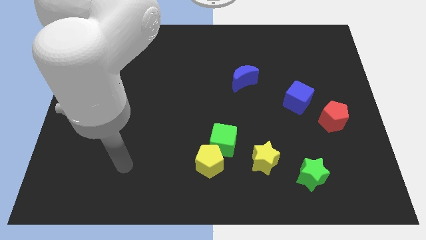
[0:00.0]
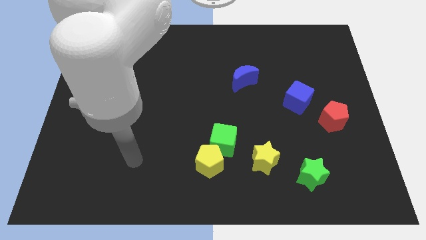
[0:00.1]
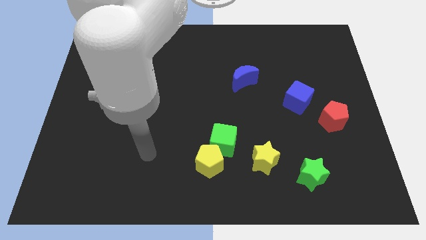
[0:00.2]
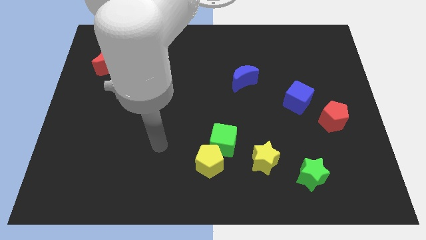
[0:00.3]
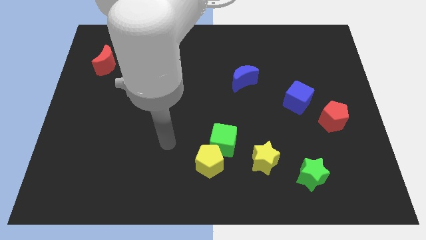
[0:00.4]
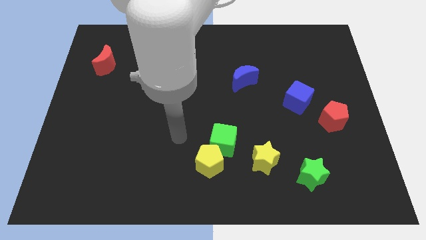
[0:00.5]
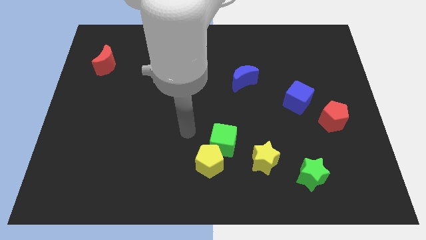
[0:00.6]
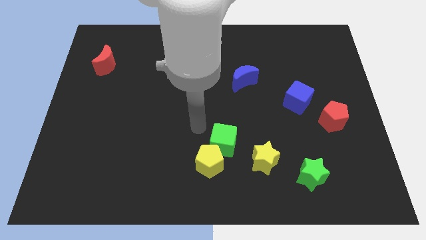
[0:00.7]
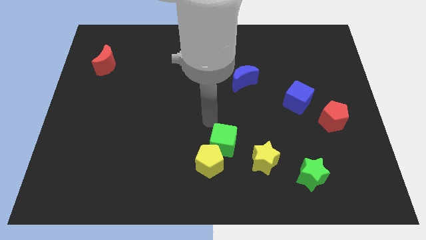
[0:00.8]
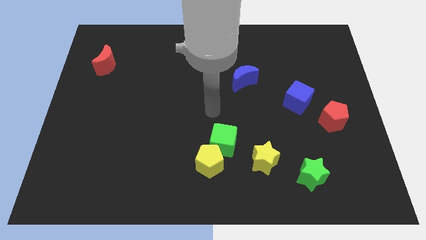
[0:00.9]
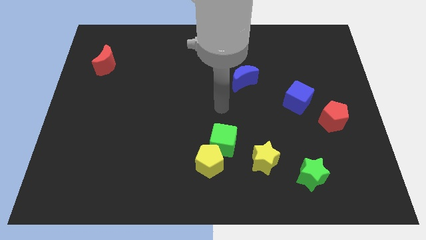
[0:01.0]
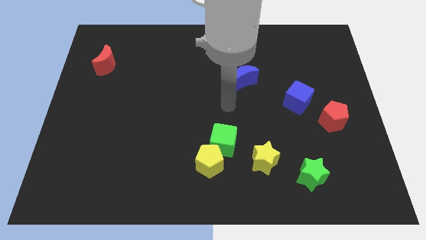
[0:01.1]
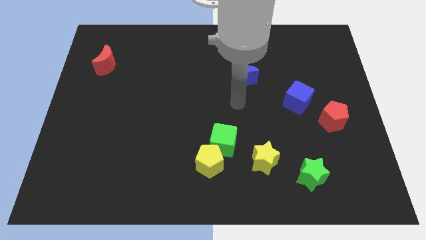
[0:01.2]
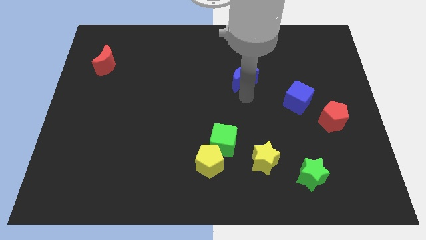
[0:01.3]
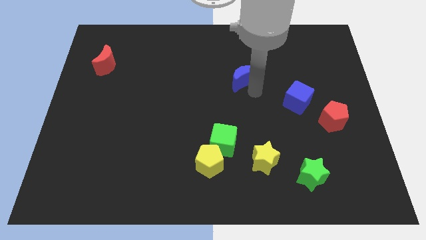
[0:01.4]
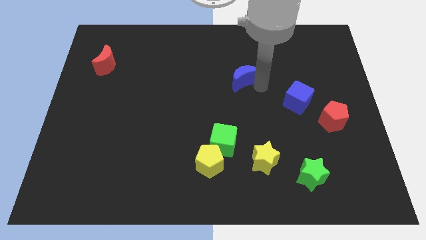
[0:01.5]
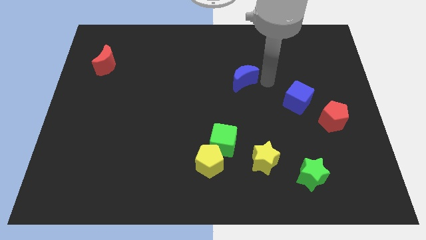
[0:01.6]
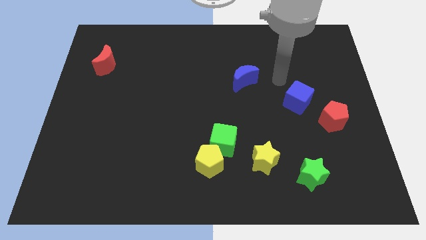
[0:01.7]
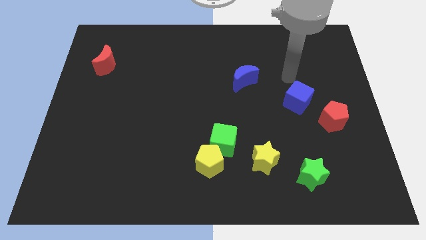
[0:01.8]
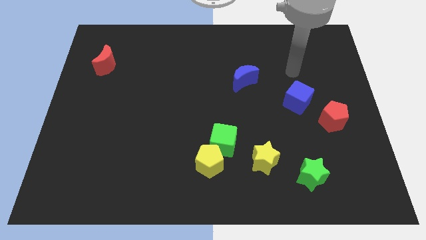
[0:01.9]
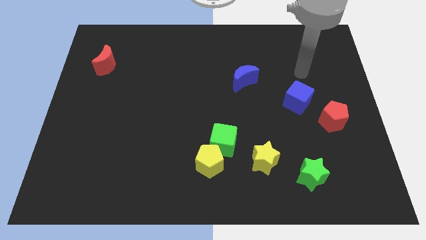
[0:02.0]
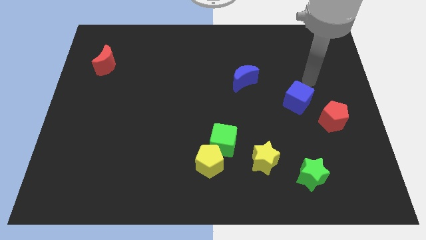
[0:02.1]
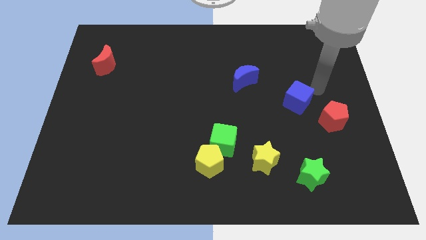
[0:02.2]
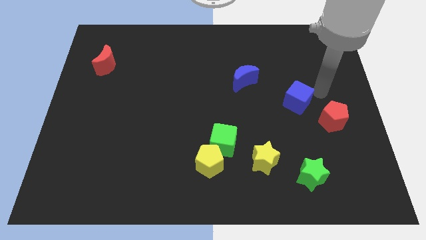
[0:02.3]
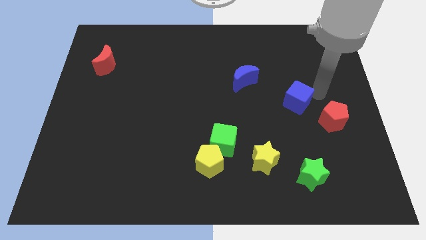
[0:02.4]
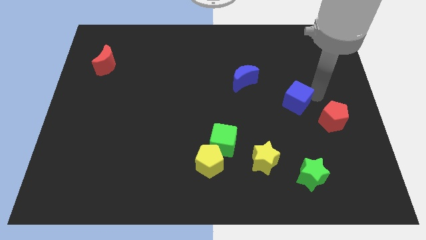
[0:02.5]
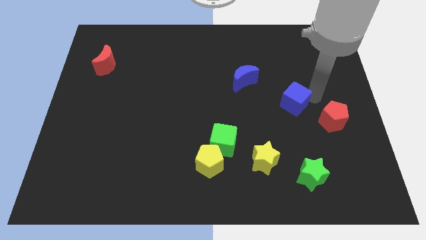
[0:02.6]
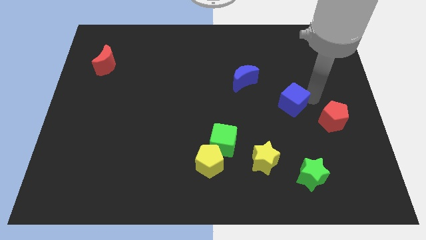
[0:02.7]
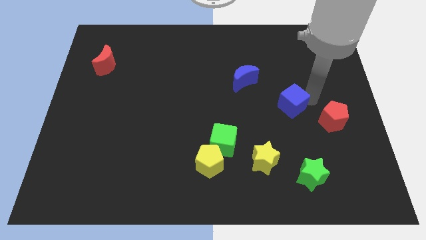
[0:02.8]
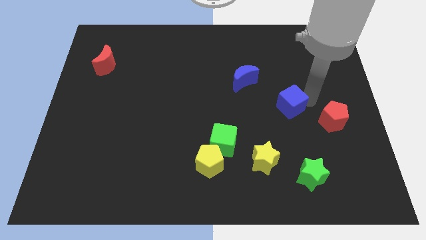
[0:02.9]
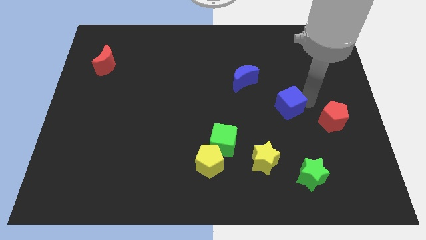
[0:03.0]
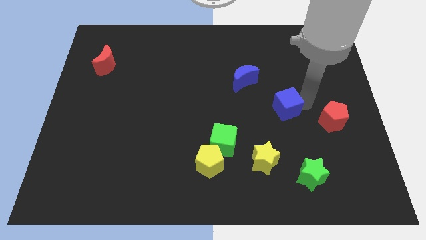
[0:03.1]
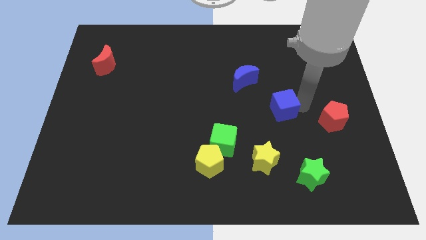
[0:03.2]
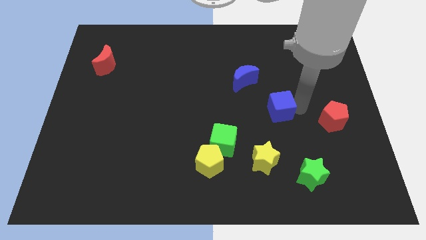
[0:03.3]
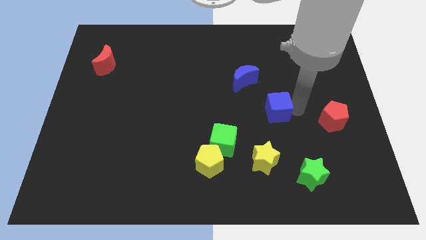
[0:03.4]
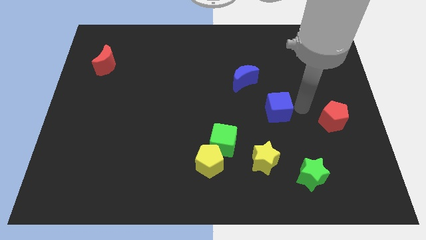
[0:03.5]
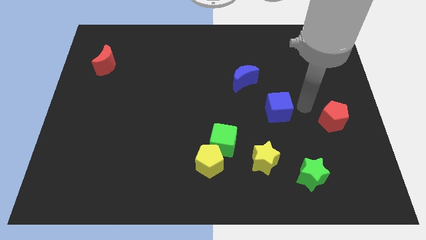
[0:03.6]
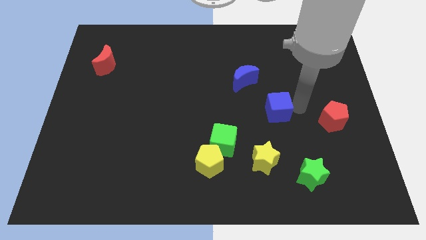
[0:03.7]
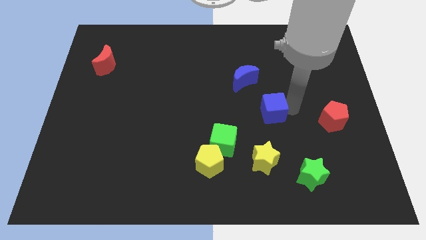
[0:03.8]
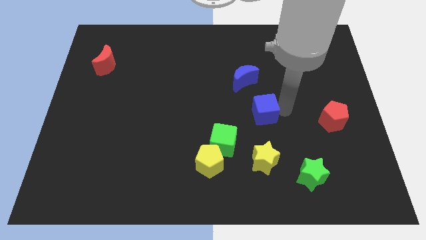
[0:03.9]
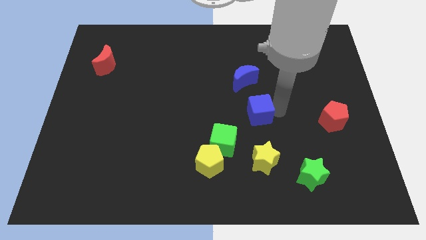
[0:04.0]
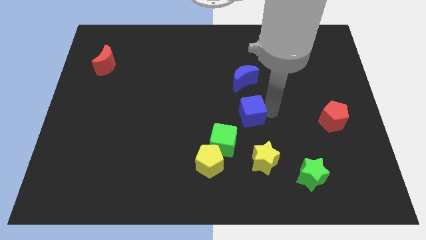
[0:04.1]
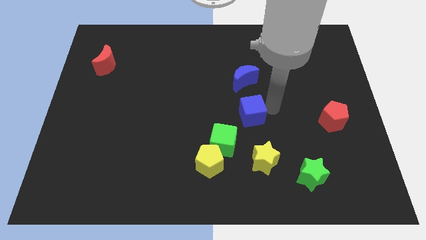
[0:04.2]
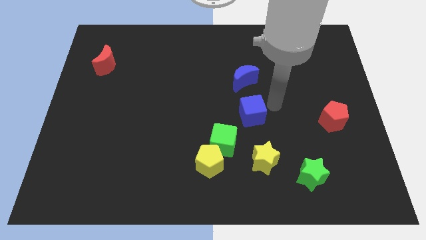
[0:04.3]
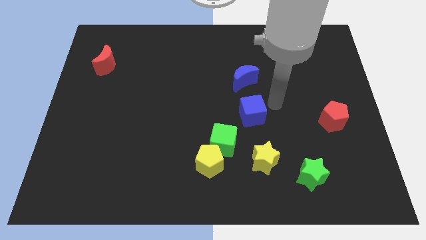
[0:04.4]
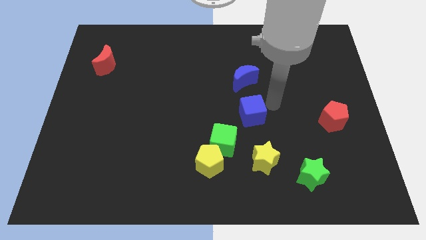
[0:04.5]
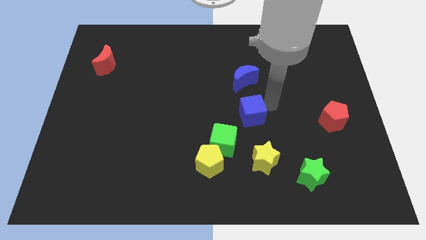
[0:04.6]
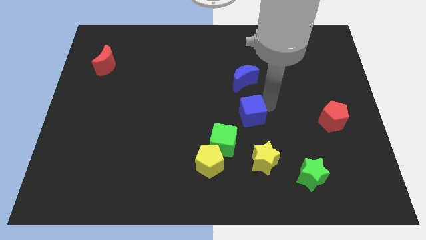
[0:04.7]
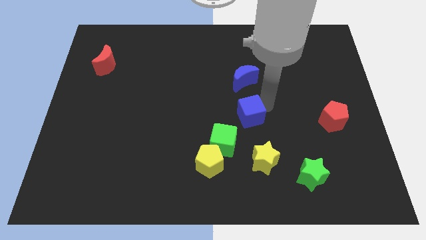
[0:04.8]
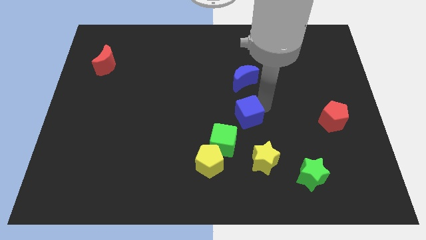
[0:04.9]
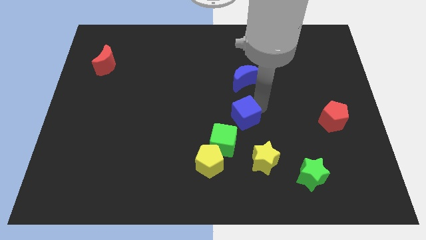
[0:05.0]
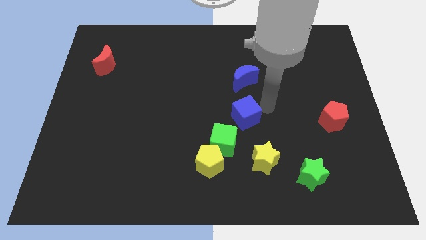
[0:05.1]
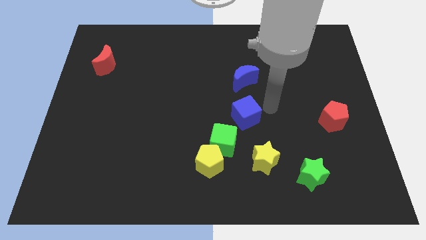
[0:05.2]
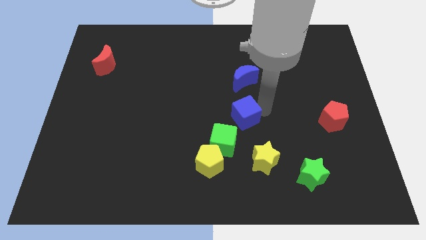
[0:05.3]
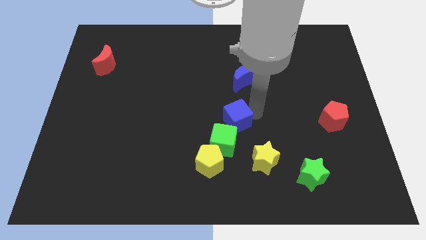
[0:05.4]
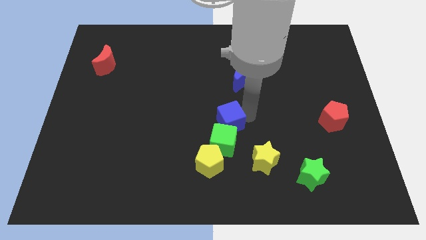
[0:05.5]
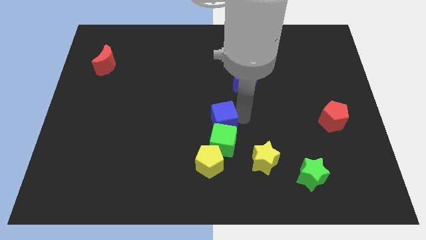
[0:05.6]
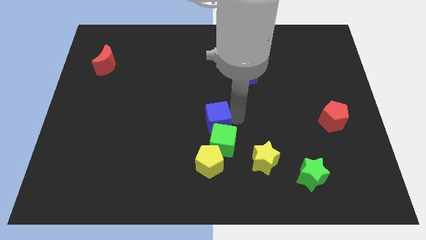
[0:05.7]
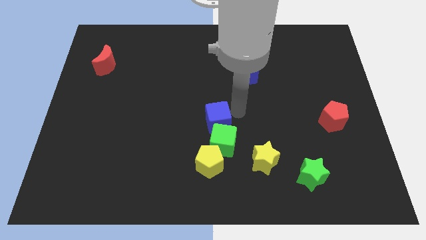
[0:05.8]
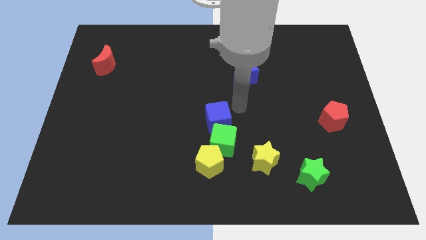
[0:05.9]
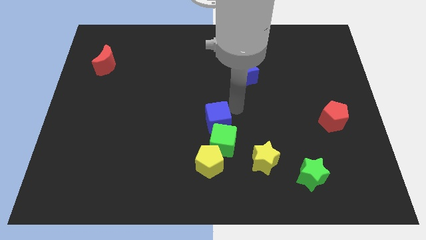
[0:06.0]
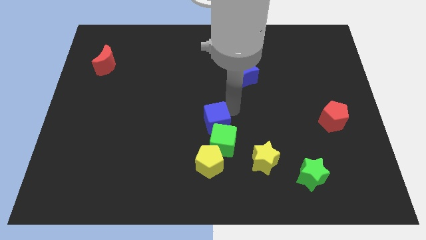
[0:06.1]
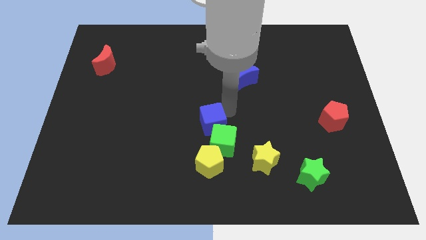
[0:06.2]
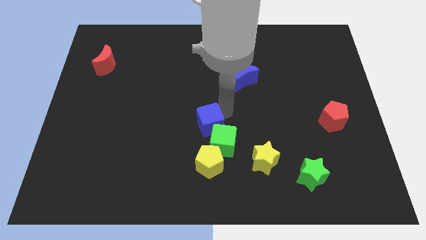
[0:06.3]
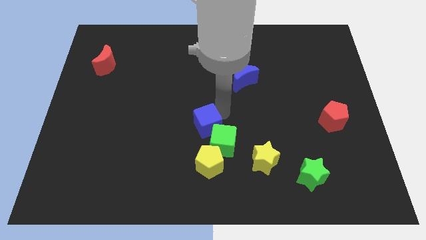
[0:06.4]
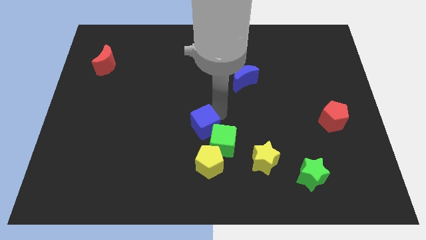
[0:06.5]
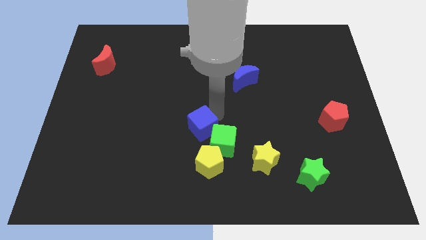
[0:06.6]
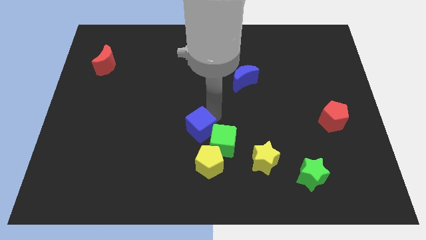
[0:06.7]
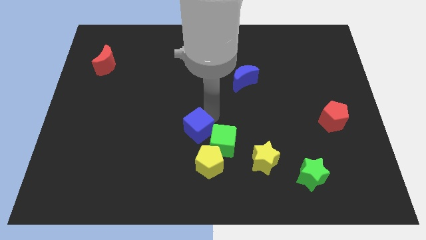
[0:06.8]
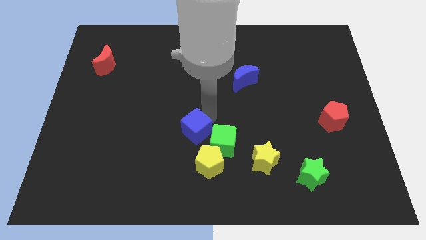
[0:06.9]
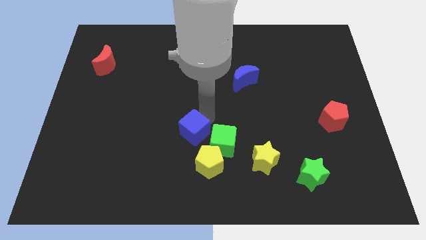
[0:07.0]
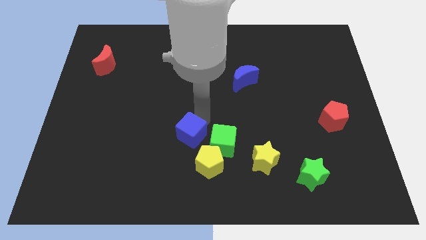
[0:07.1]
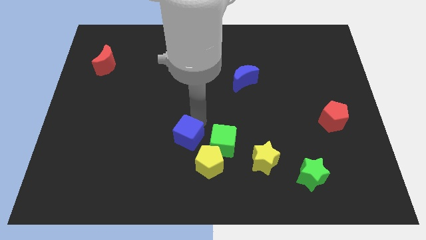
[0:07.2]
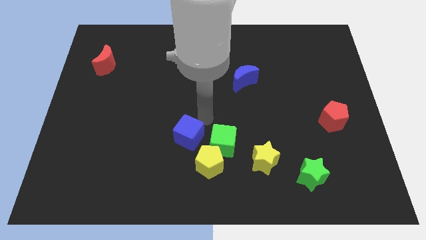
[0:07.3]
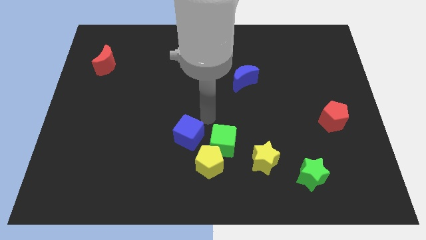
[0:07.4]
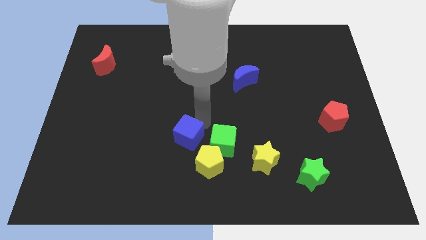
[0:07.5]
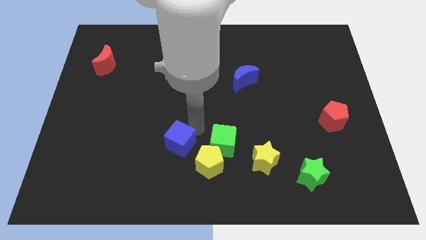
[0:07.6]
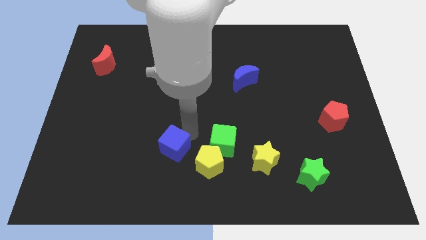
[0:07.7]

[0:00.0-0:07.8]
push the blue cube just left of the yellow pentagon
